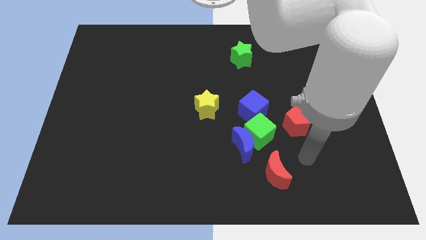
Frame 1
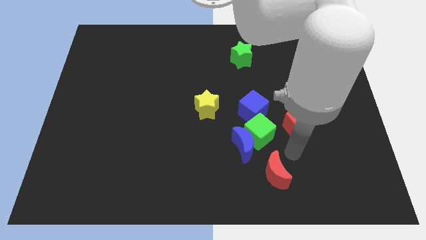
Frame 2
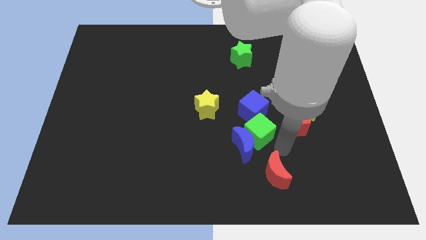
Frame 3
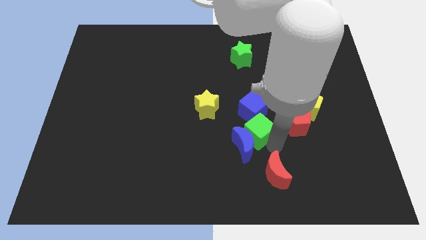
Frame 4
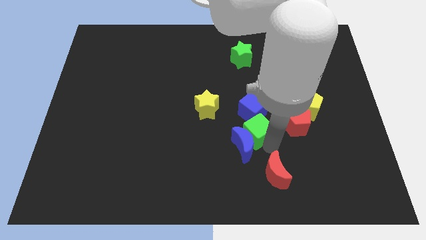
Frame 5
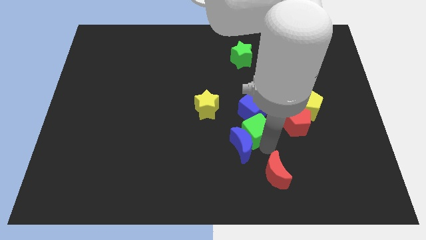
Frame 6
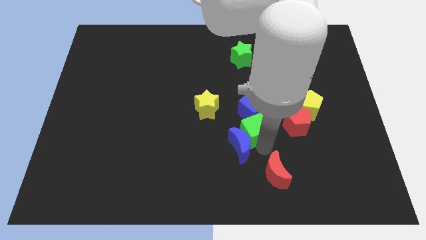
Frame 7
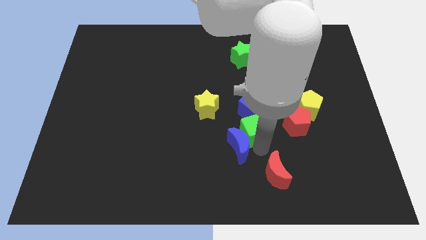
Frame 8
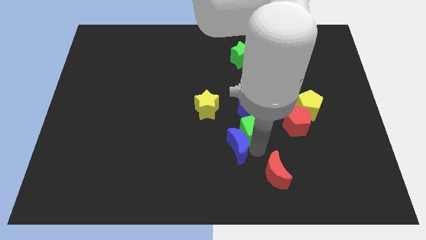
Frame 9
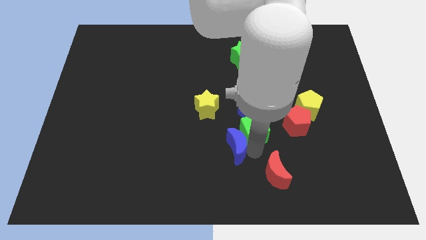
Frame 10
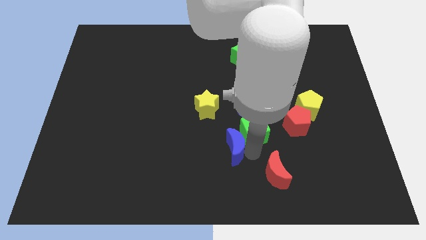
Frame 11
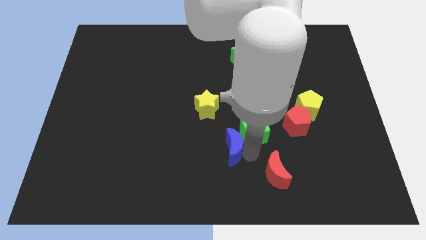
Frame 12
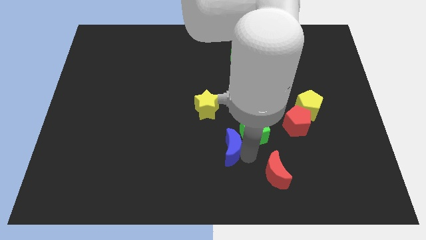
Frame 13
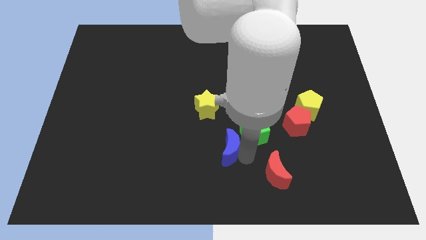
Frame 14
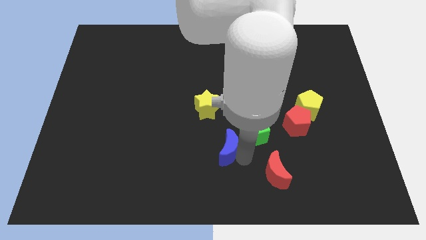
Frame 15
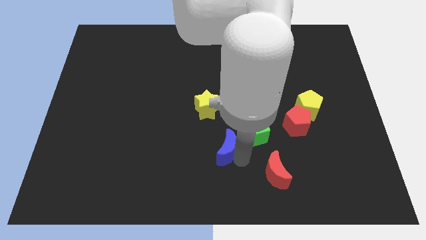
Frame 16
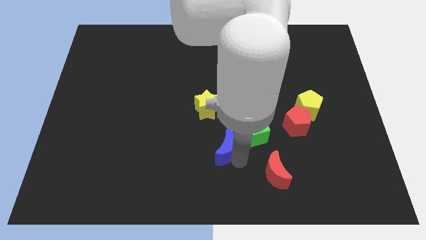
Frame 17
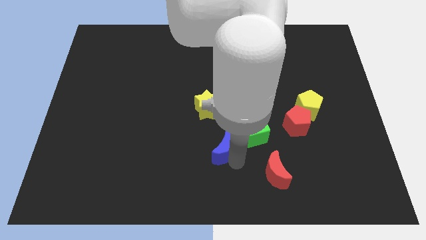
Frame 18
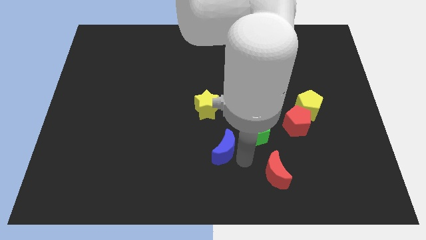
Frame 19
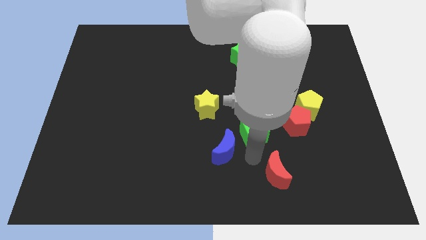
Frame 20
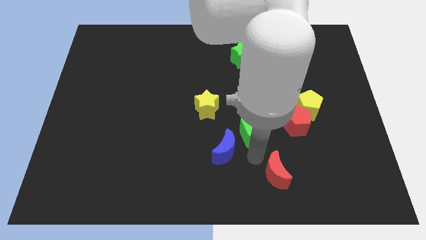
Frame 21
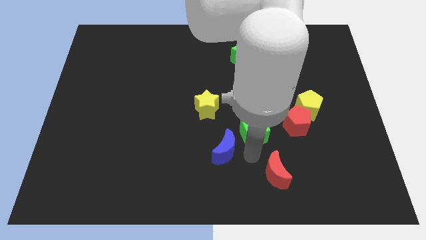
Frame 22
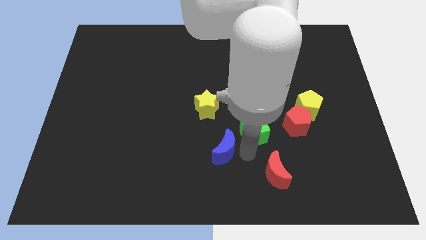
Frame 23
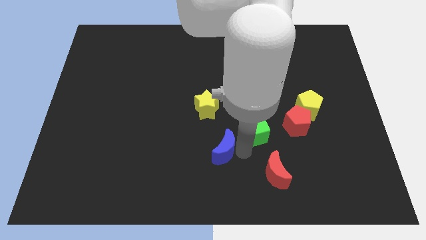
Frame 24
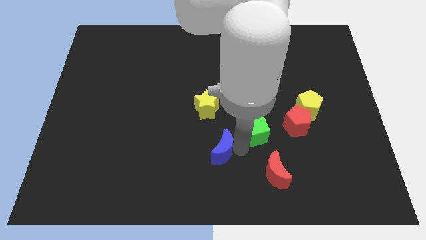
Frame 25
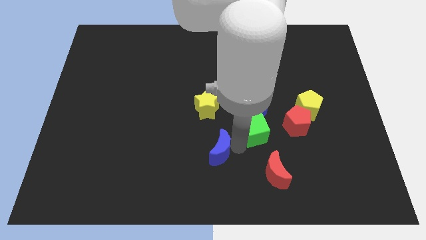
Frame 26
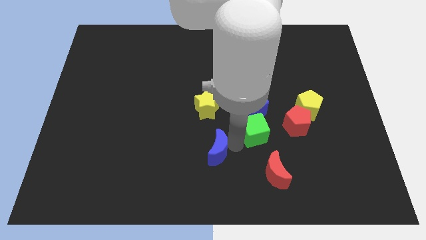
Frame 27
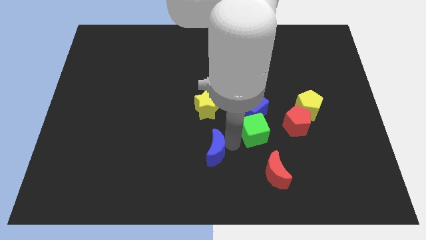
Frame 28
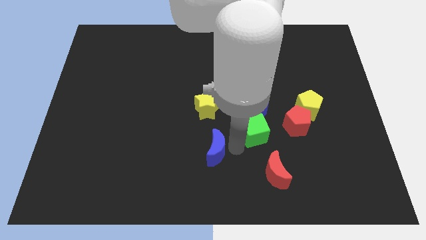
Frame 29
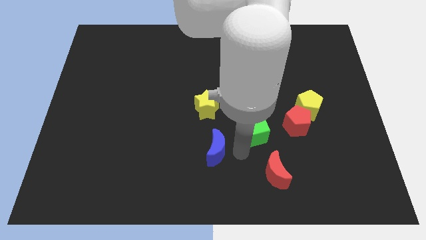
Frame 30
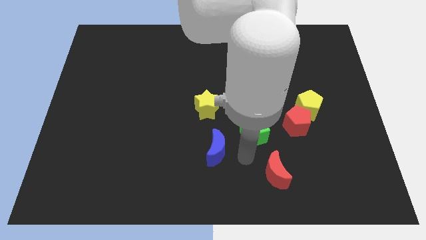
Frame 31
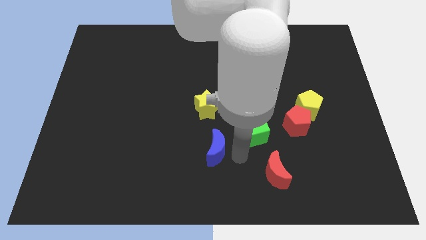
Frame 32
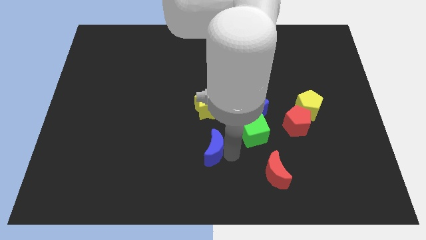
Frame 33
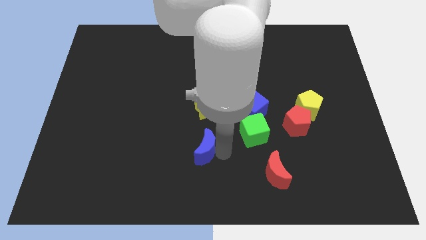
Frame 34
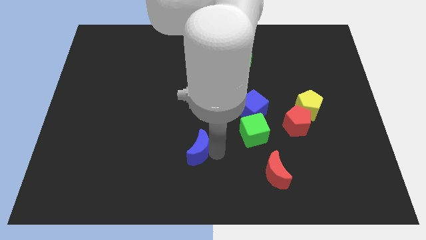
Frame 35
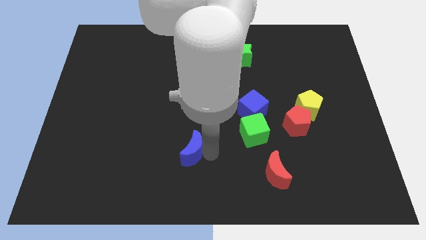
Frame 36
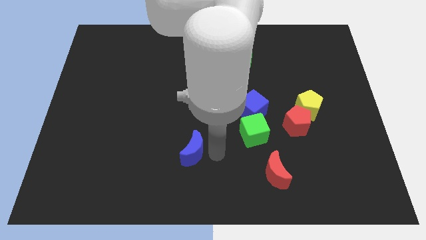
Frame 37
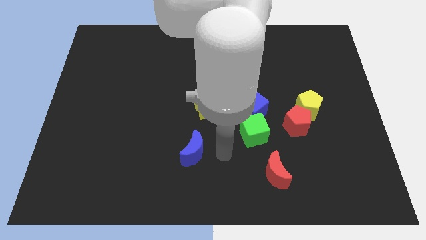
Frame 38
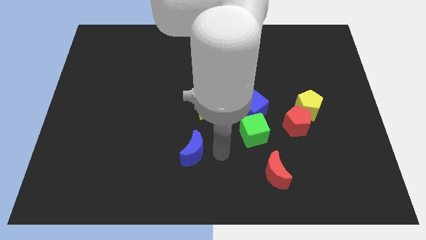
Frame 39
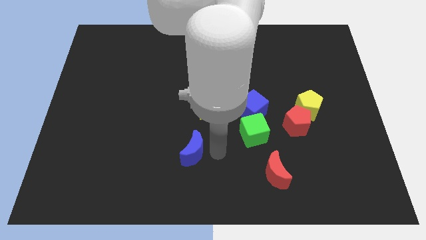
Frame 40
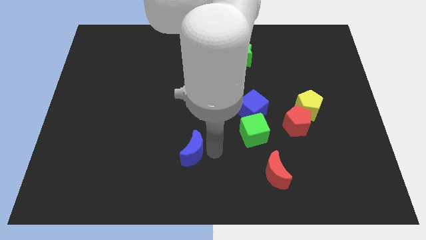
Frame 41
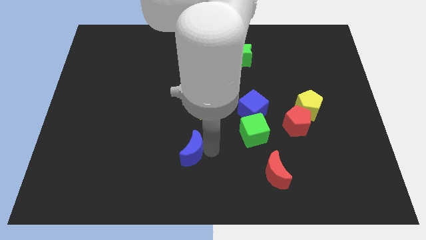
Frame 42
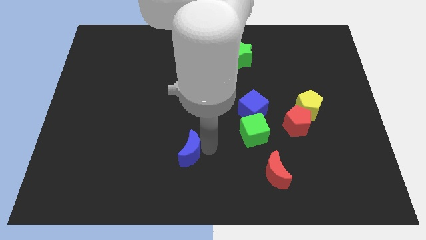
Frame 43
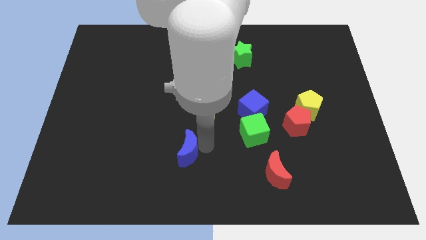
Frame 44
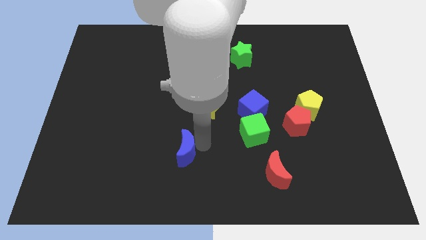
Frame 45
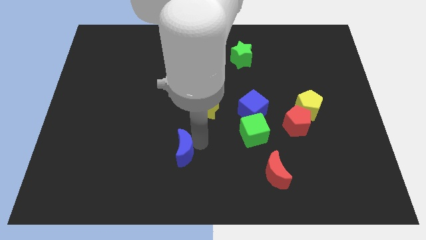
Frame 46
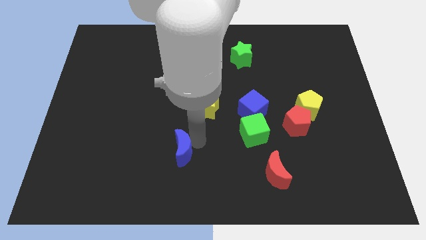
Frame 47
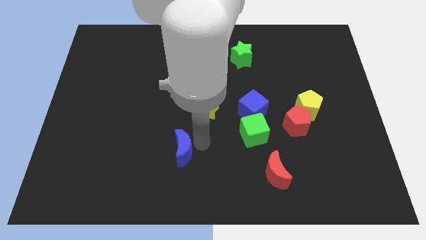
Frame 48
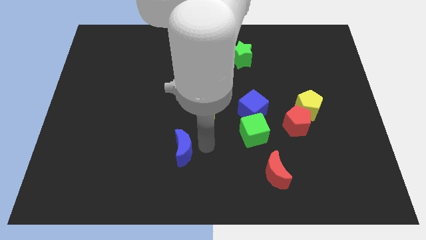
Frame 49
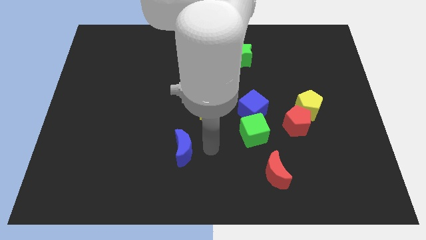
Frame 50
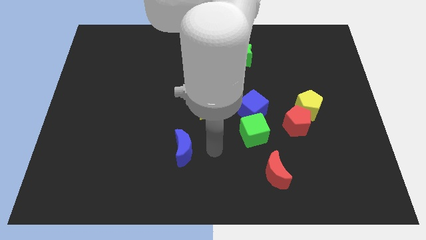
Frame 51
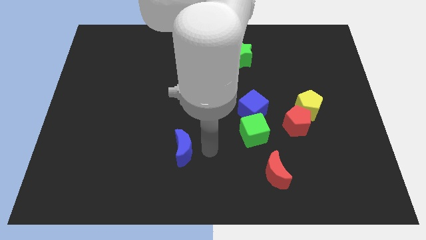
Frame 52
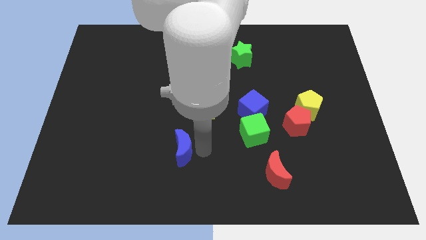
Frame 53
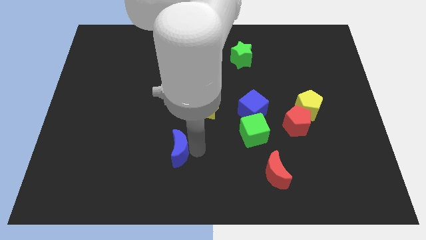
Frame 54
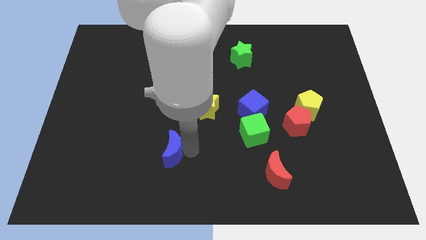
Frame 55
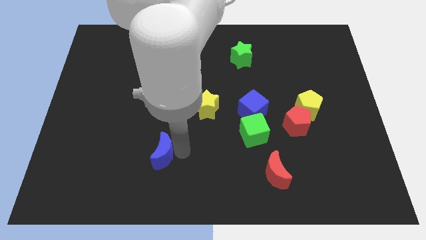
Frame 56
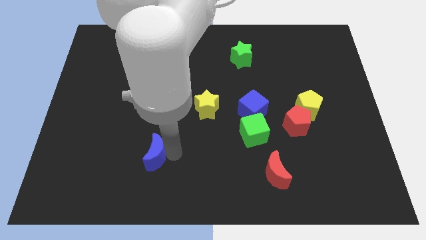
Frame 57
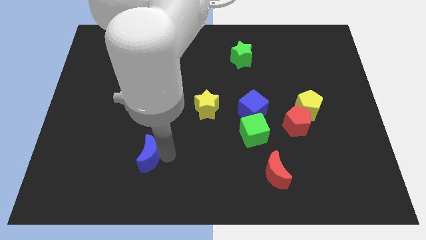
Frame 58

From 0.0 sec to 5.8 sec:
push the blue moon to the left

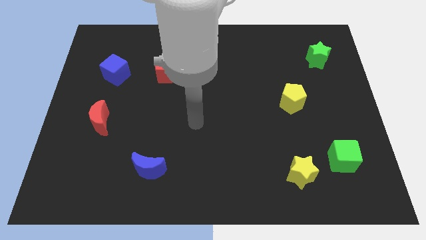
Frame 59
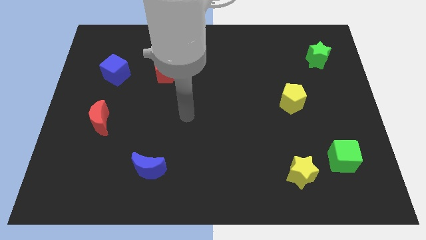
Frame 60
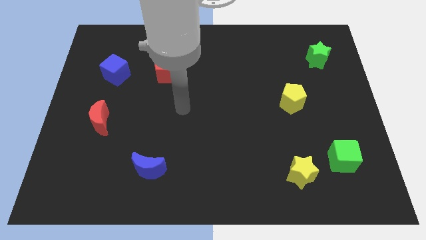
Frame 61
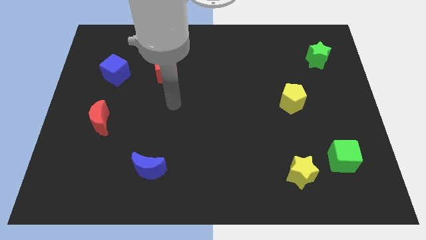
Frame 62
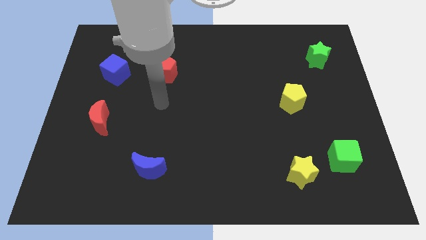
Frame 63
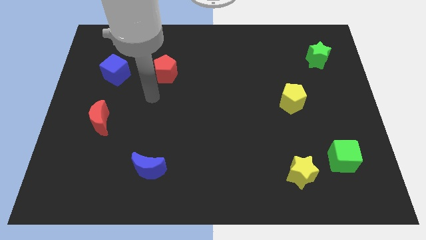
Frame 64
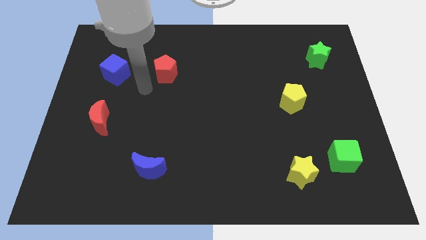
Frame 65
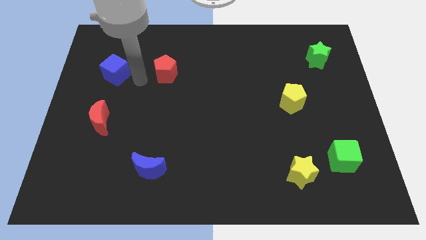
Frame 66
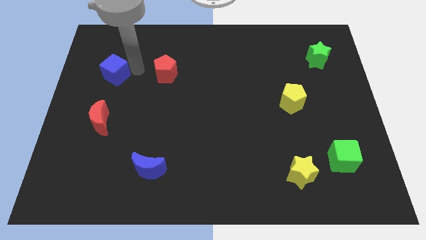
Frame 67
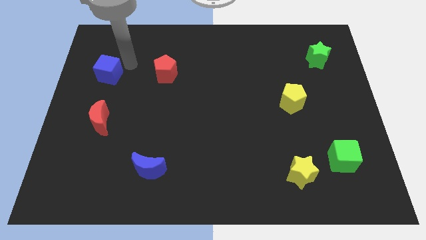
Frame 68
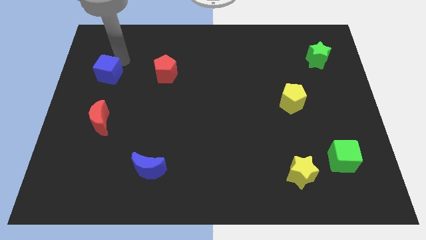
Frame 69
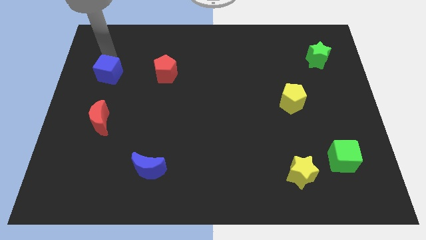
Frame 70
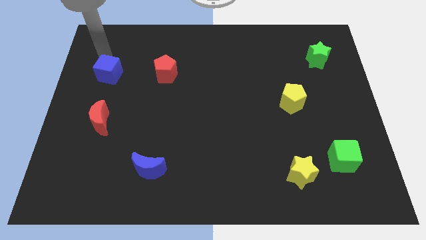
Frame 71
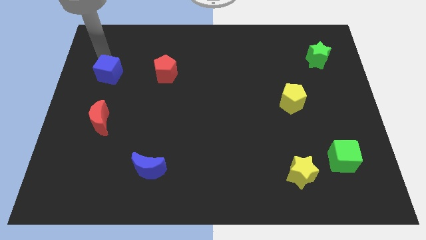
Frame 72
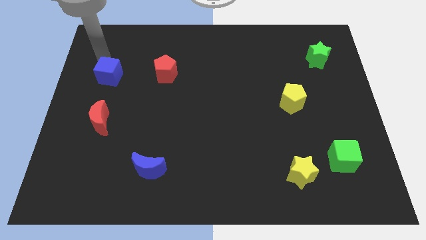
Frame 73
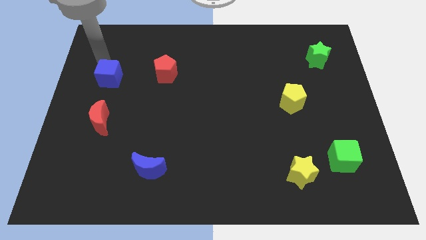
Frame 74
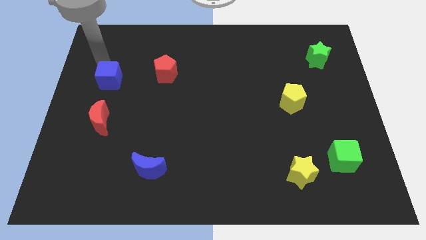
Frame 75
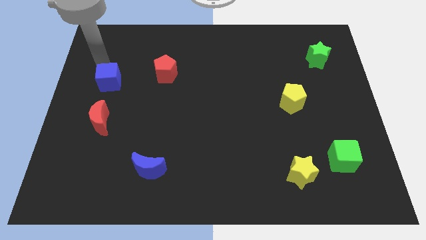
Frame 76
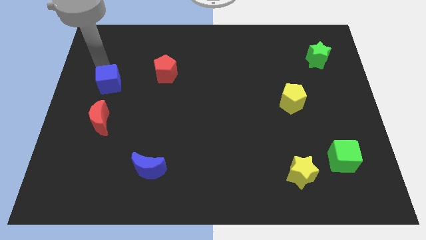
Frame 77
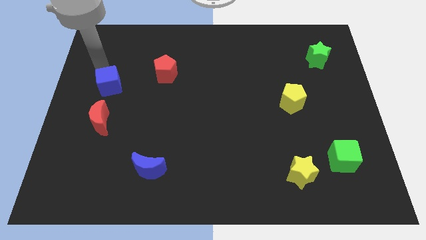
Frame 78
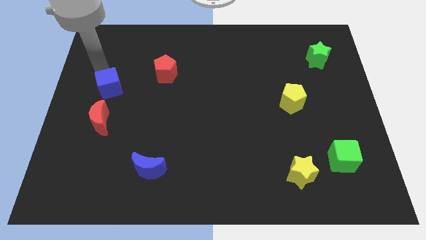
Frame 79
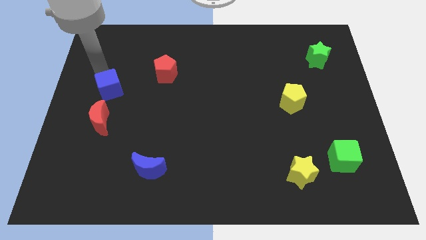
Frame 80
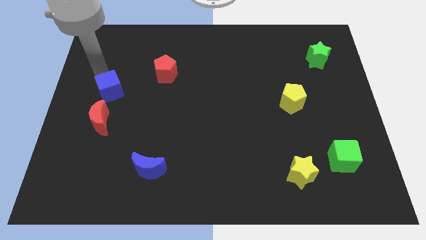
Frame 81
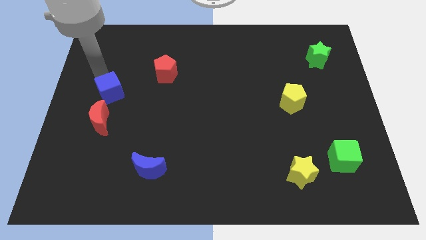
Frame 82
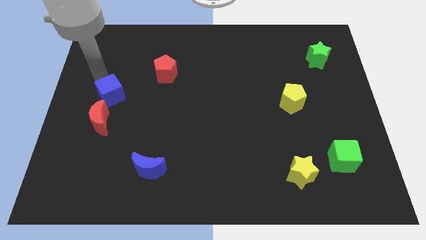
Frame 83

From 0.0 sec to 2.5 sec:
move the blue cube down a little bit
